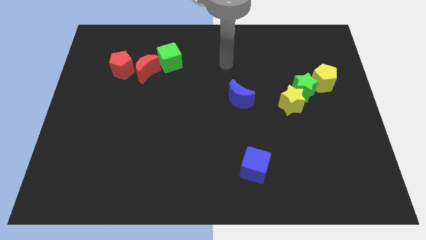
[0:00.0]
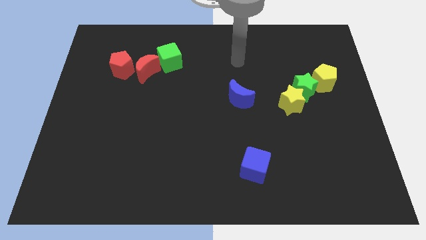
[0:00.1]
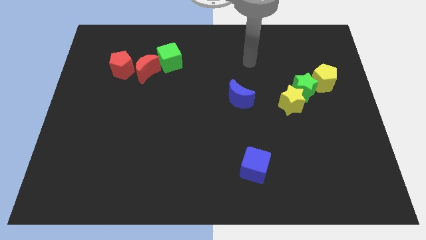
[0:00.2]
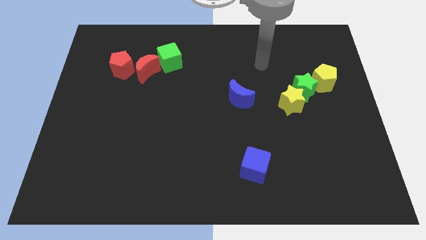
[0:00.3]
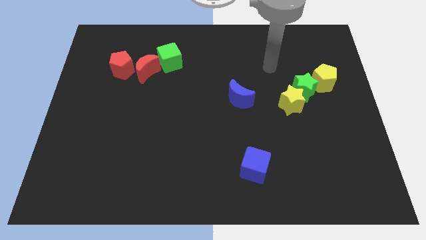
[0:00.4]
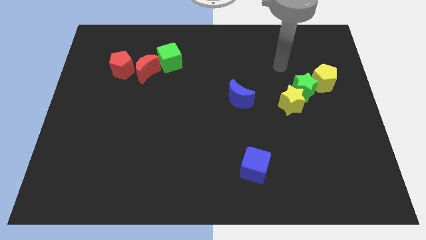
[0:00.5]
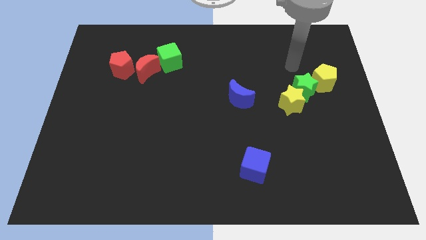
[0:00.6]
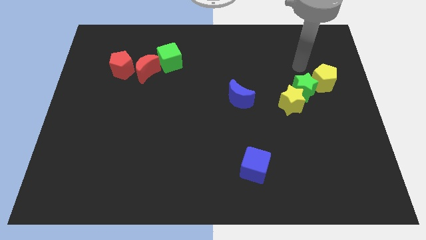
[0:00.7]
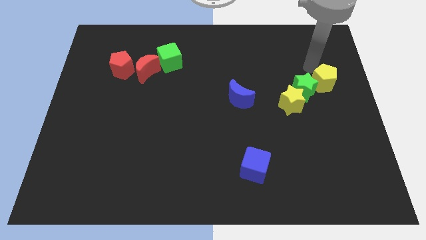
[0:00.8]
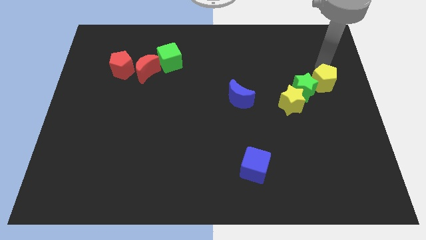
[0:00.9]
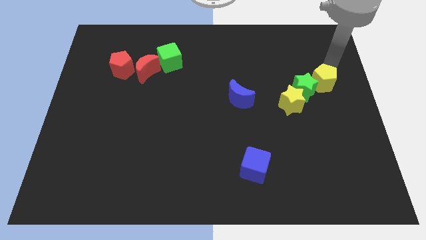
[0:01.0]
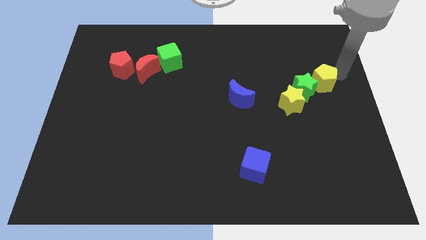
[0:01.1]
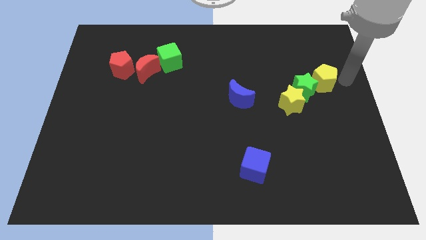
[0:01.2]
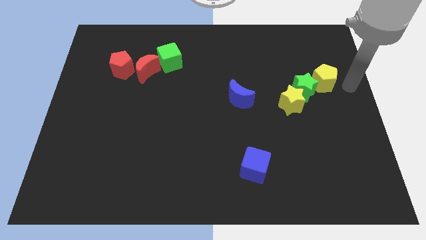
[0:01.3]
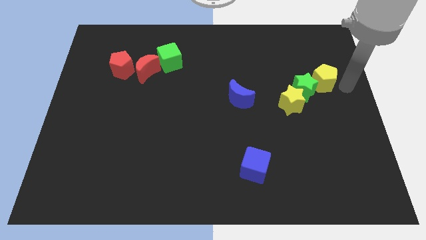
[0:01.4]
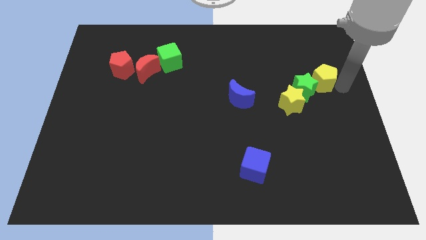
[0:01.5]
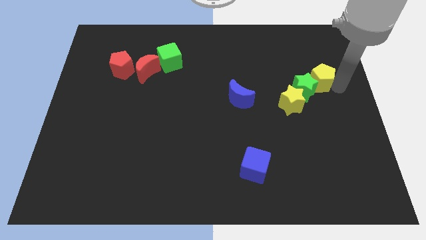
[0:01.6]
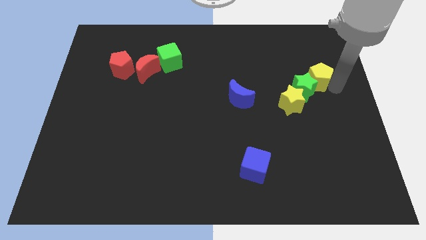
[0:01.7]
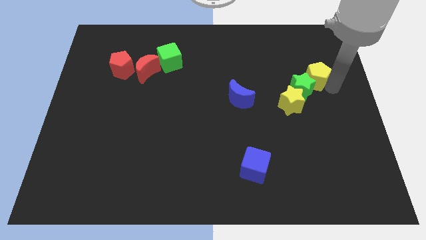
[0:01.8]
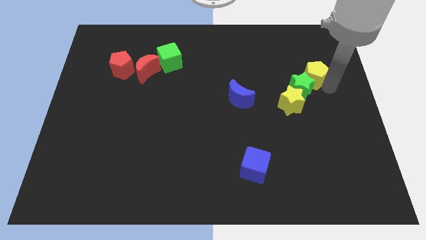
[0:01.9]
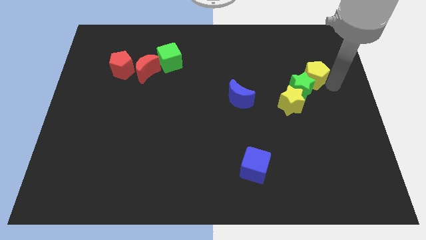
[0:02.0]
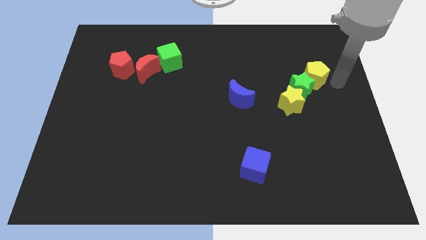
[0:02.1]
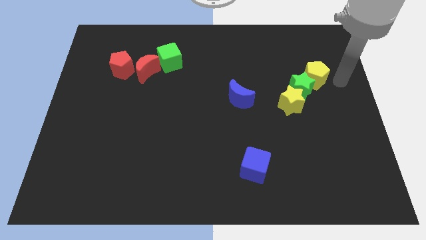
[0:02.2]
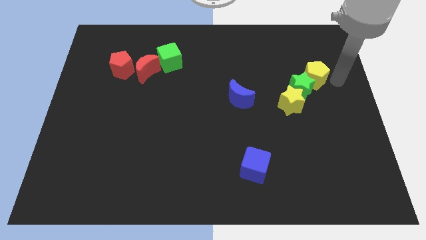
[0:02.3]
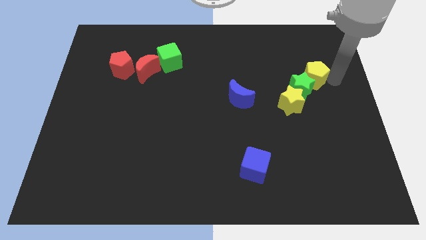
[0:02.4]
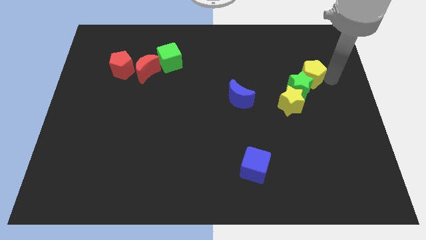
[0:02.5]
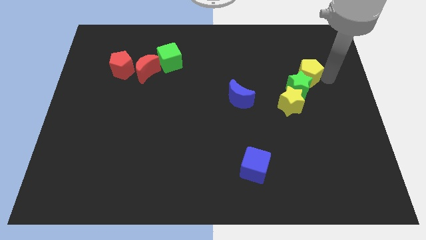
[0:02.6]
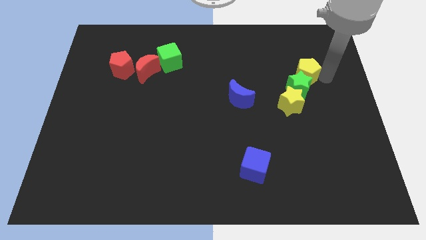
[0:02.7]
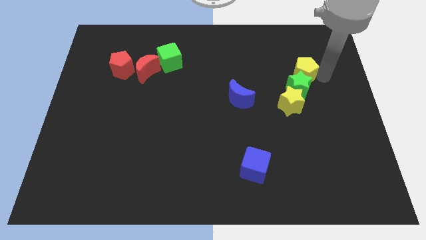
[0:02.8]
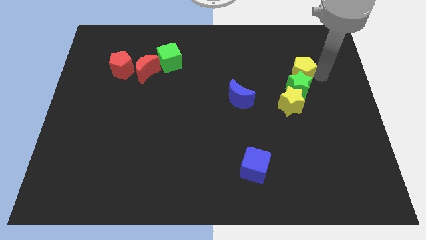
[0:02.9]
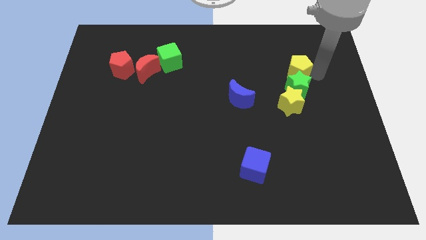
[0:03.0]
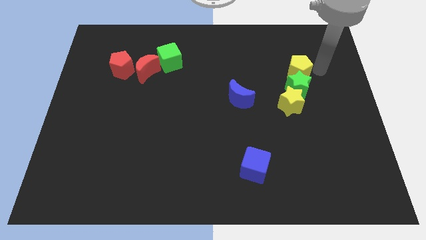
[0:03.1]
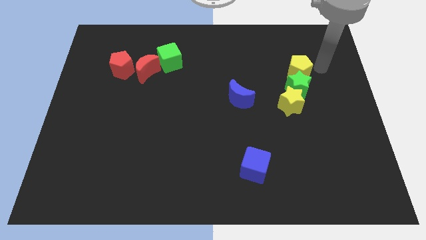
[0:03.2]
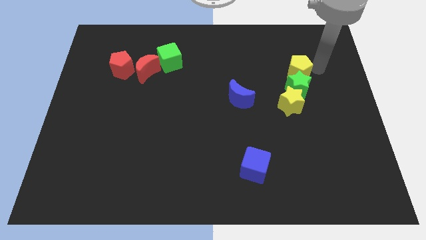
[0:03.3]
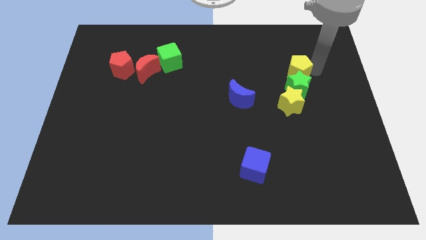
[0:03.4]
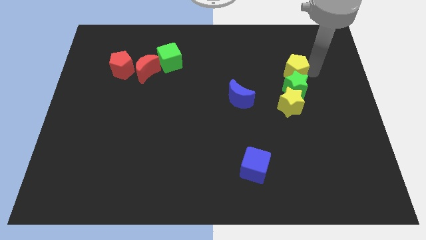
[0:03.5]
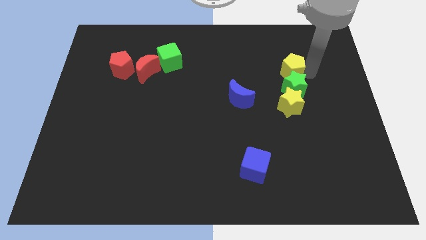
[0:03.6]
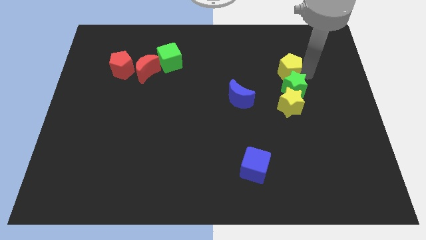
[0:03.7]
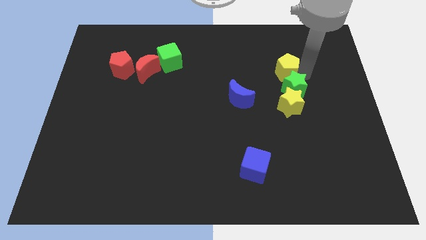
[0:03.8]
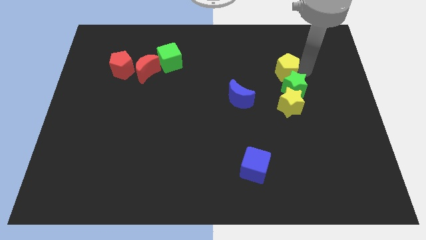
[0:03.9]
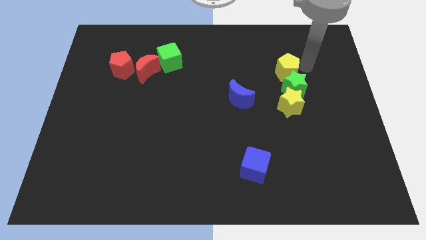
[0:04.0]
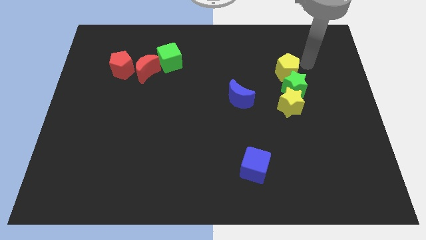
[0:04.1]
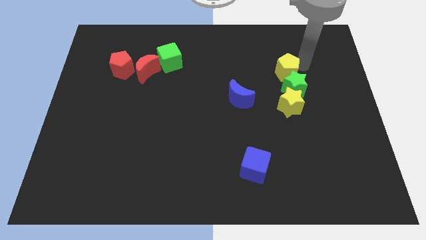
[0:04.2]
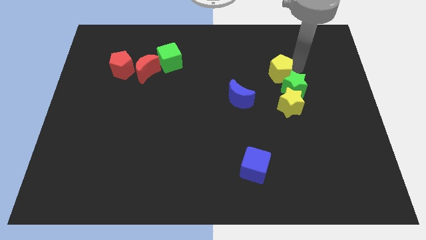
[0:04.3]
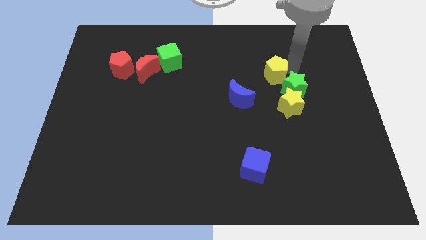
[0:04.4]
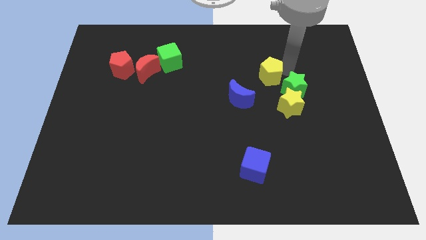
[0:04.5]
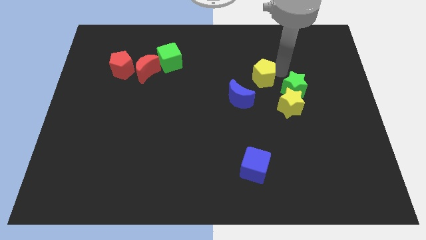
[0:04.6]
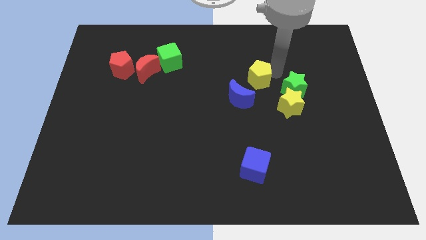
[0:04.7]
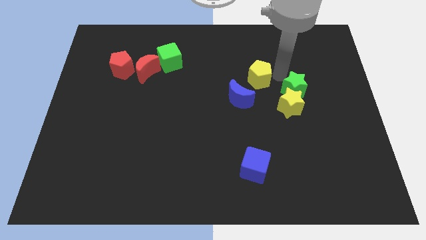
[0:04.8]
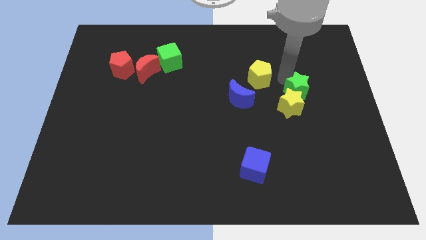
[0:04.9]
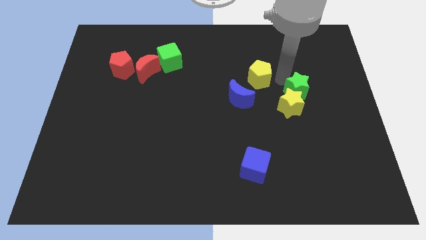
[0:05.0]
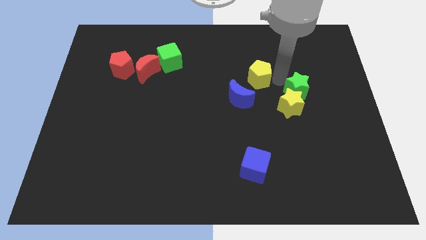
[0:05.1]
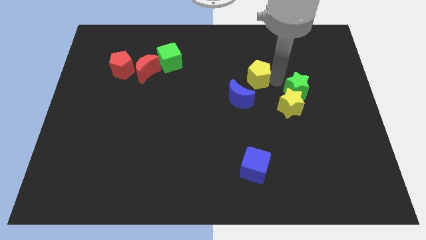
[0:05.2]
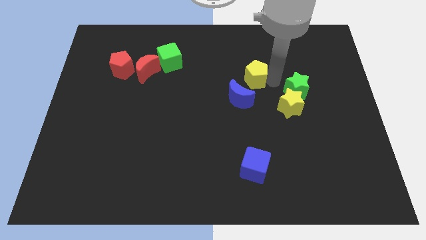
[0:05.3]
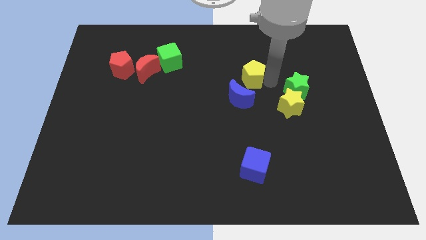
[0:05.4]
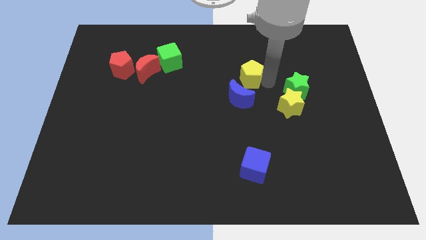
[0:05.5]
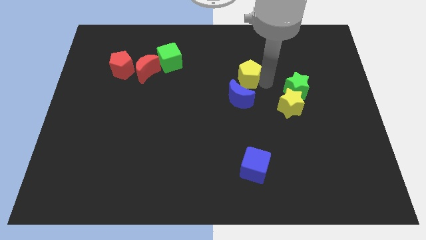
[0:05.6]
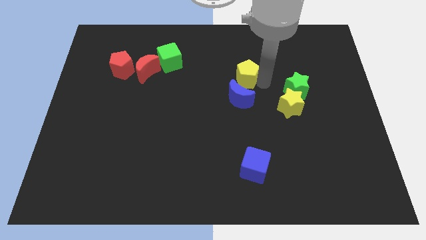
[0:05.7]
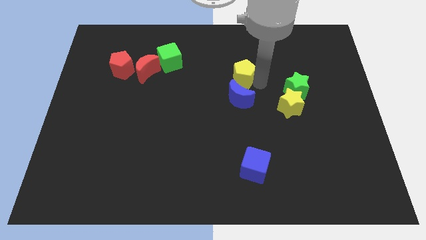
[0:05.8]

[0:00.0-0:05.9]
slide the yellow pentagon left

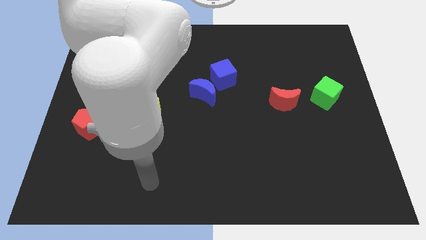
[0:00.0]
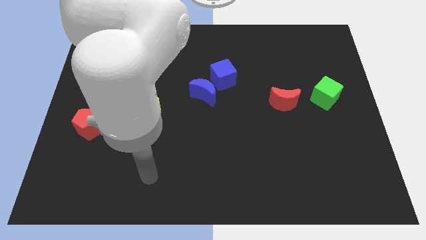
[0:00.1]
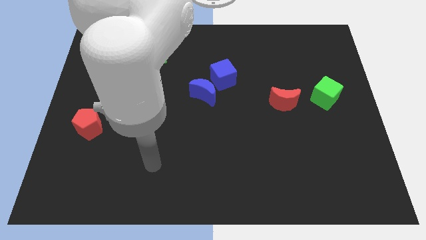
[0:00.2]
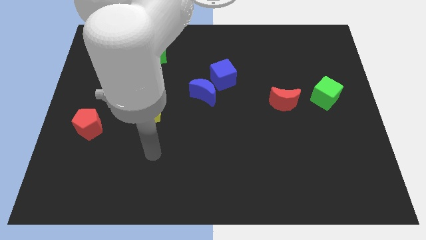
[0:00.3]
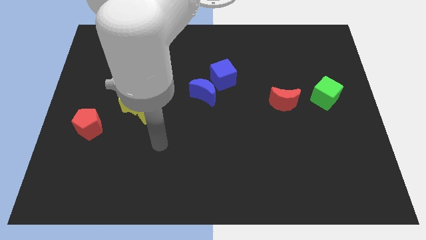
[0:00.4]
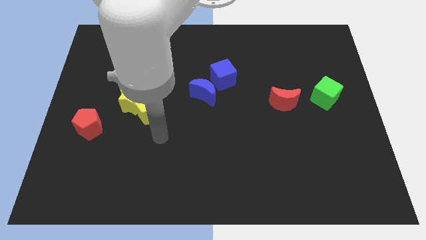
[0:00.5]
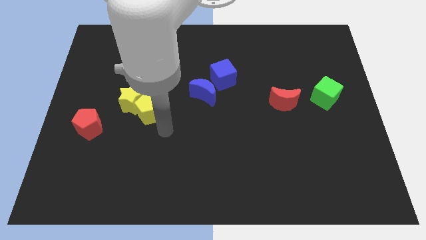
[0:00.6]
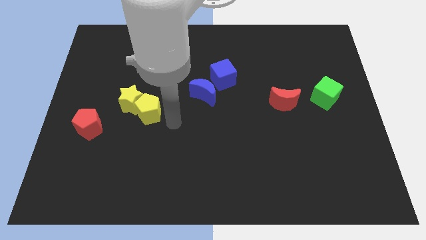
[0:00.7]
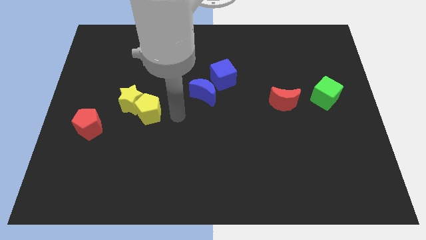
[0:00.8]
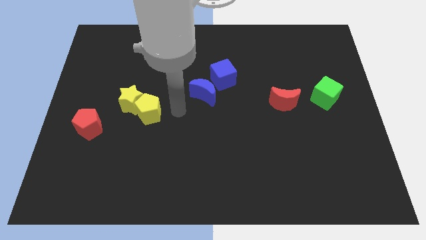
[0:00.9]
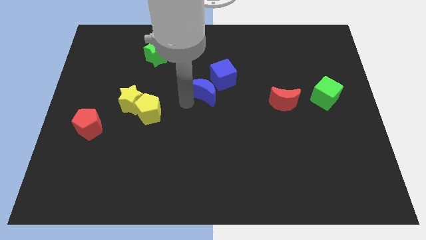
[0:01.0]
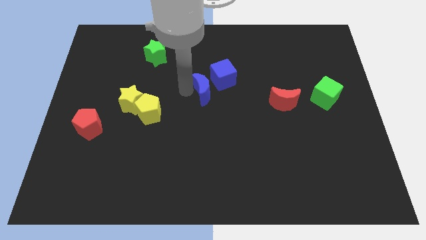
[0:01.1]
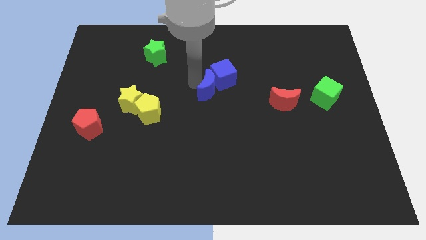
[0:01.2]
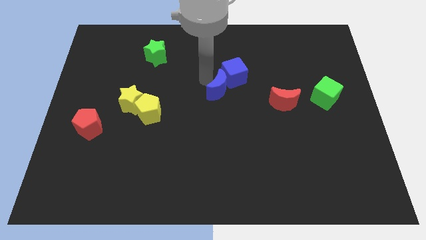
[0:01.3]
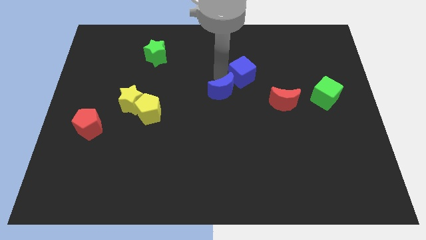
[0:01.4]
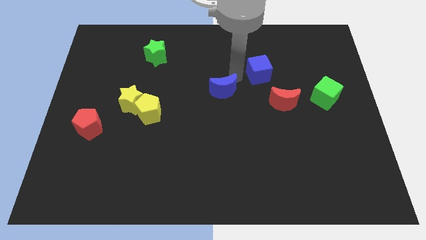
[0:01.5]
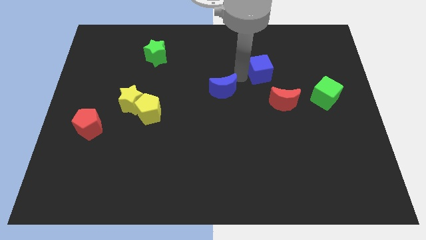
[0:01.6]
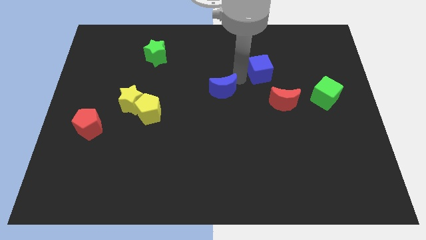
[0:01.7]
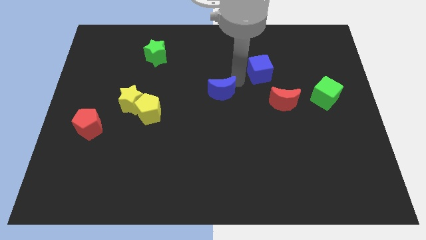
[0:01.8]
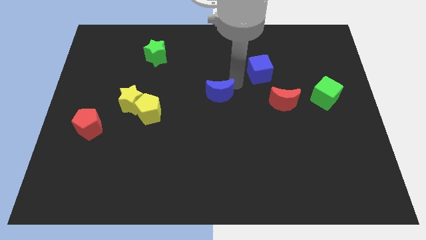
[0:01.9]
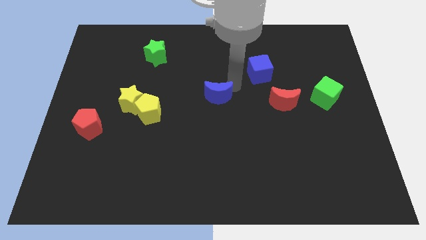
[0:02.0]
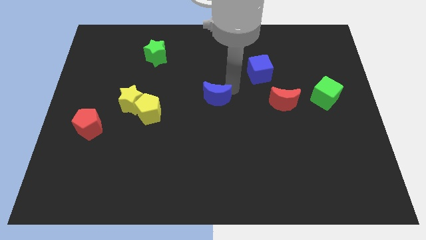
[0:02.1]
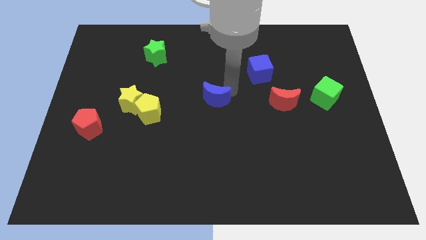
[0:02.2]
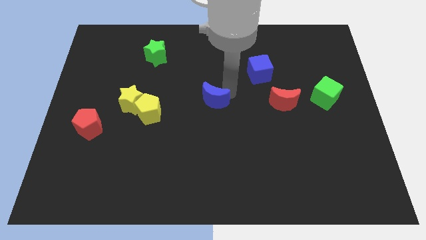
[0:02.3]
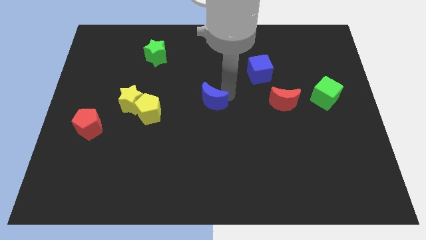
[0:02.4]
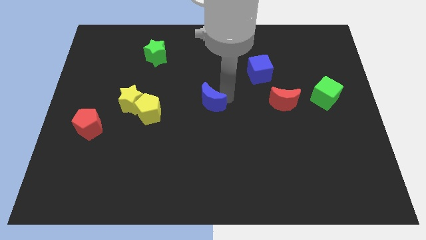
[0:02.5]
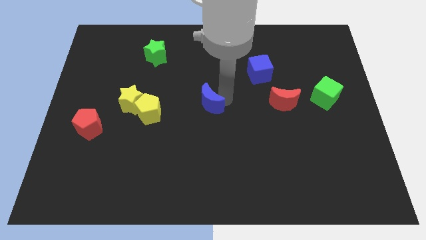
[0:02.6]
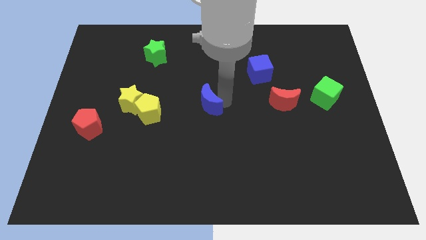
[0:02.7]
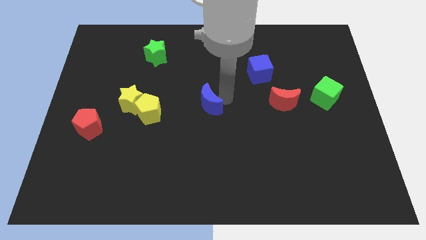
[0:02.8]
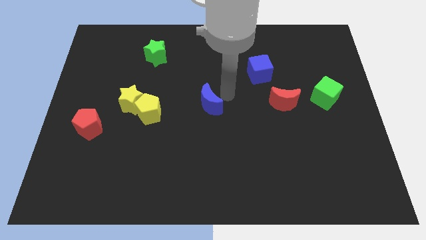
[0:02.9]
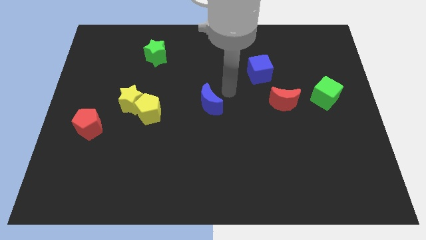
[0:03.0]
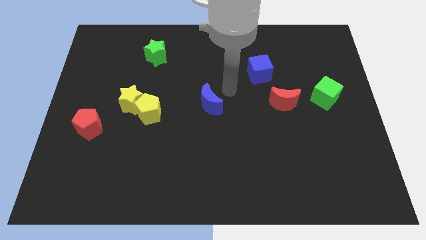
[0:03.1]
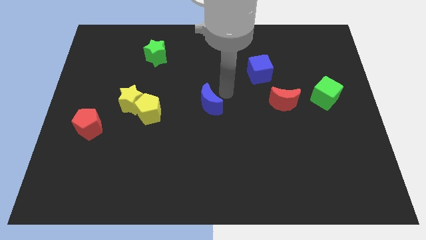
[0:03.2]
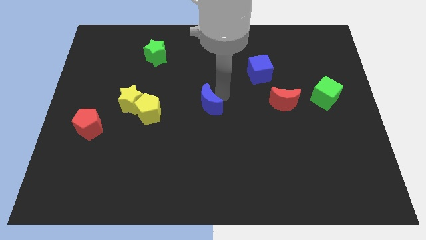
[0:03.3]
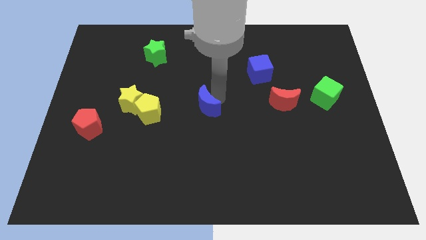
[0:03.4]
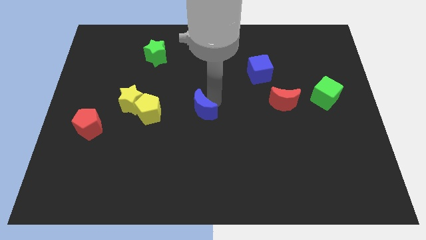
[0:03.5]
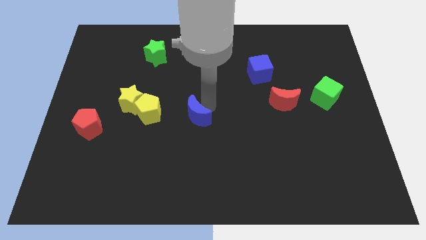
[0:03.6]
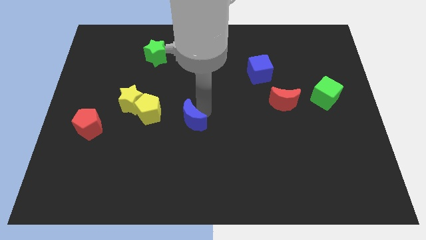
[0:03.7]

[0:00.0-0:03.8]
slide the blue moon a little down and to the left
